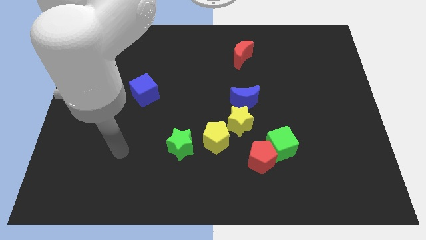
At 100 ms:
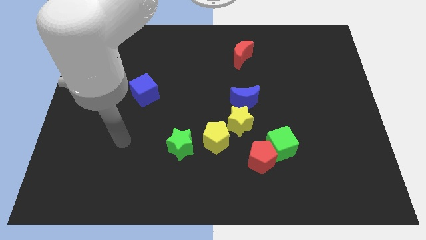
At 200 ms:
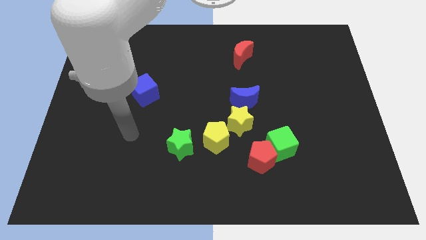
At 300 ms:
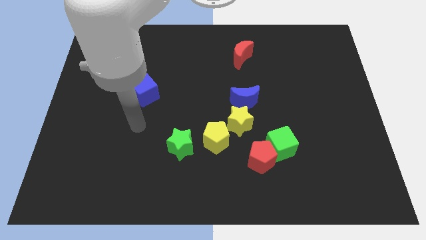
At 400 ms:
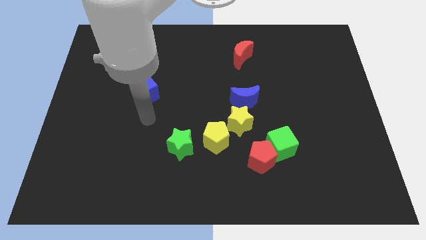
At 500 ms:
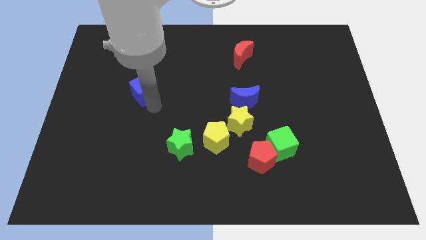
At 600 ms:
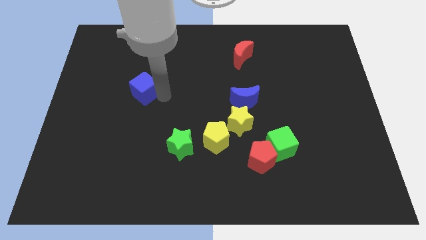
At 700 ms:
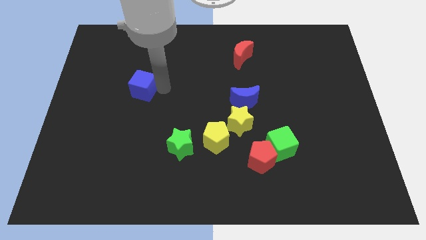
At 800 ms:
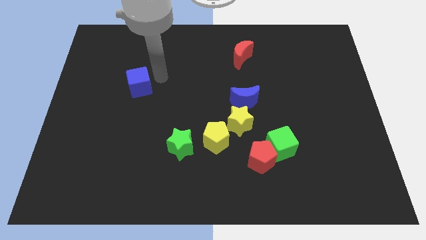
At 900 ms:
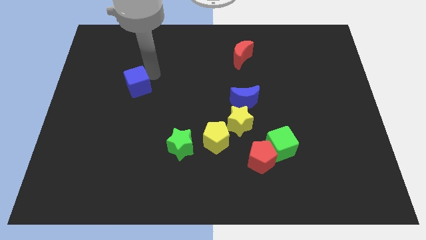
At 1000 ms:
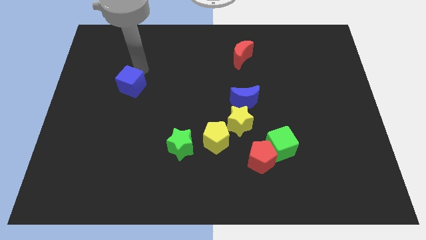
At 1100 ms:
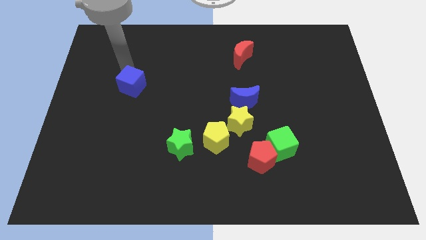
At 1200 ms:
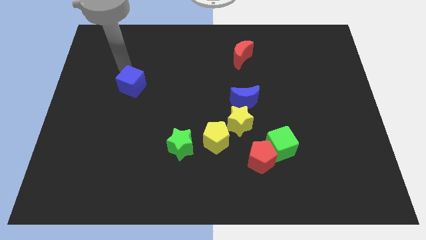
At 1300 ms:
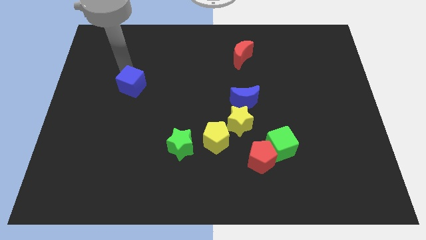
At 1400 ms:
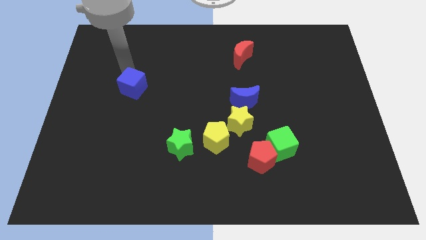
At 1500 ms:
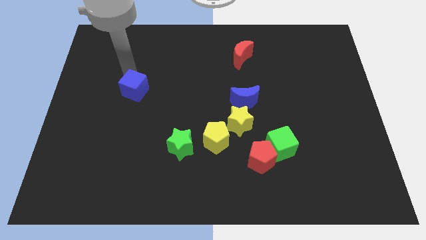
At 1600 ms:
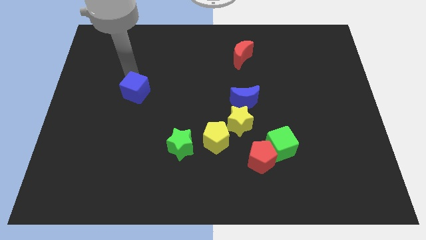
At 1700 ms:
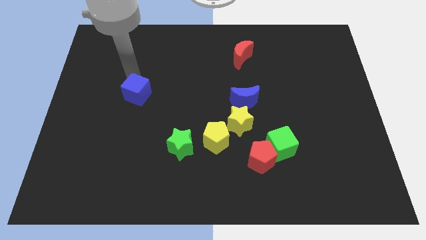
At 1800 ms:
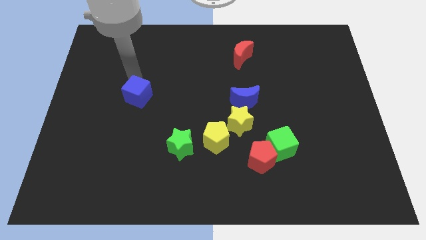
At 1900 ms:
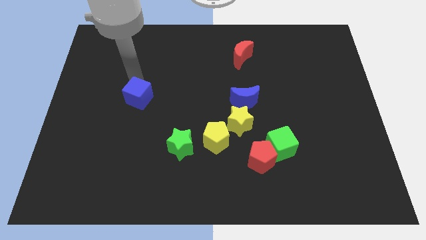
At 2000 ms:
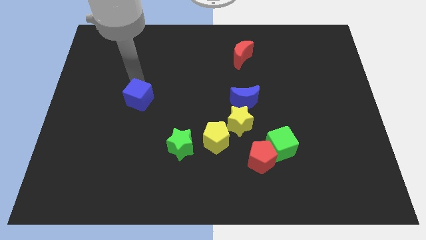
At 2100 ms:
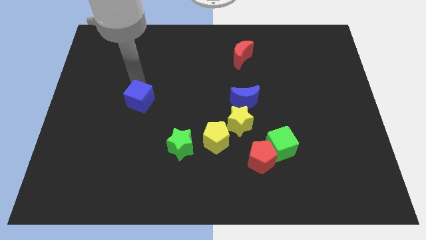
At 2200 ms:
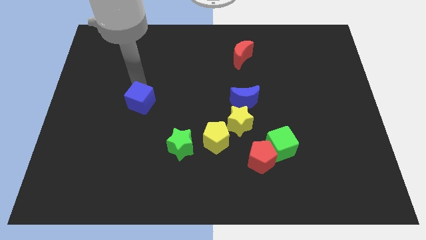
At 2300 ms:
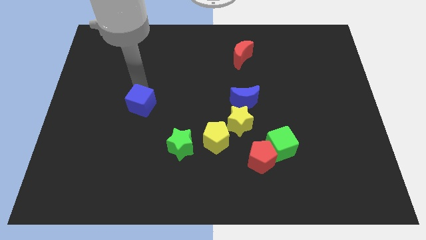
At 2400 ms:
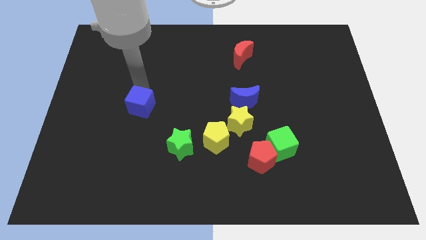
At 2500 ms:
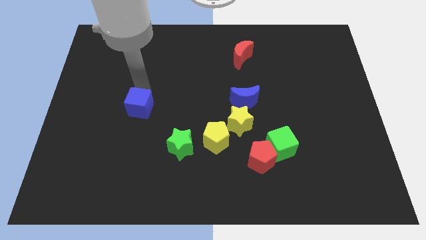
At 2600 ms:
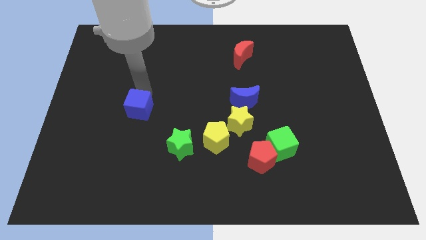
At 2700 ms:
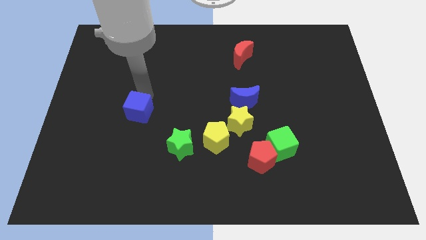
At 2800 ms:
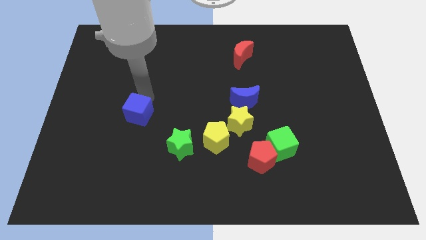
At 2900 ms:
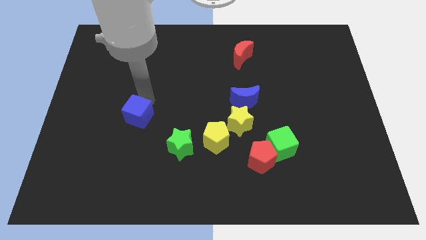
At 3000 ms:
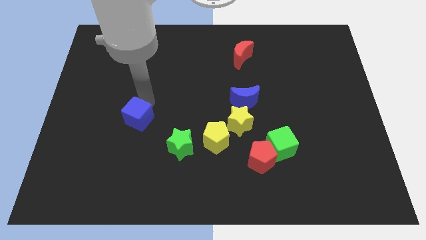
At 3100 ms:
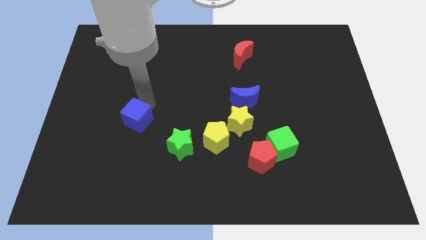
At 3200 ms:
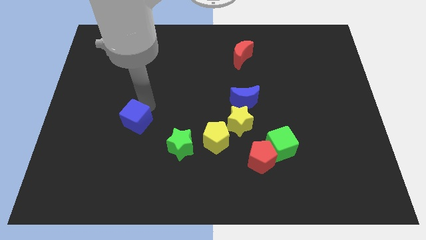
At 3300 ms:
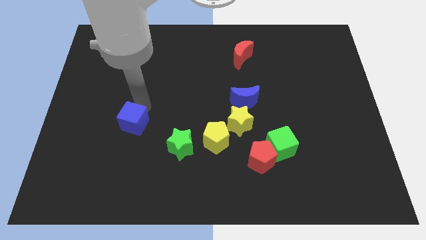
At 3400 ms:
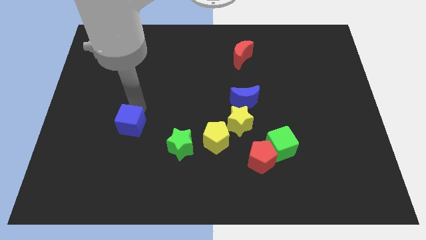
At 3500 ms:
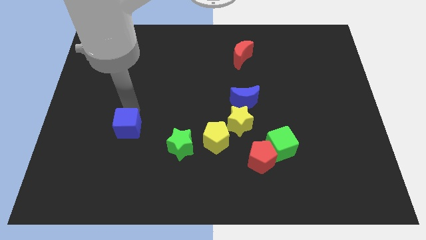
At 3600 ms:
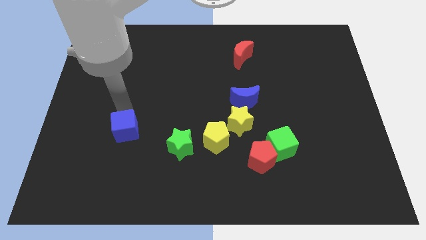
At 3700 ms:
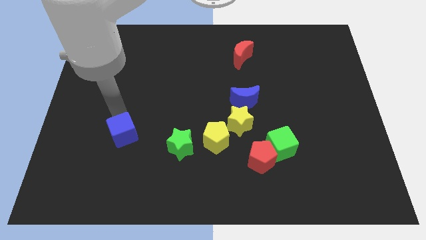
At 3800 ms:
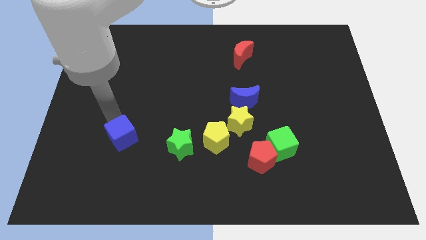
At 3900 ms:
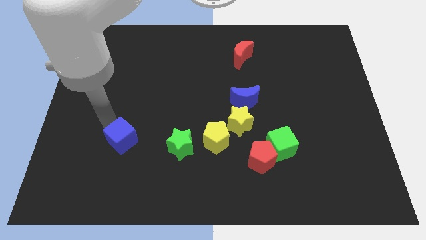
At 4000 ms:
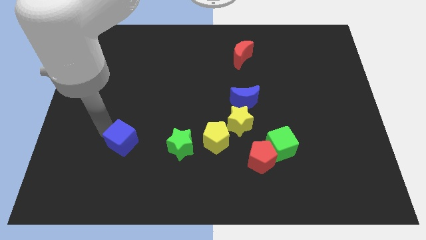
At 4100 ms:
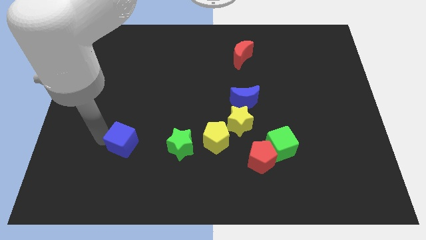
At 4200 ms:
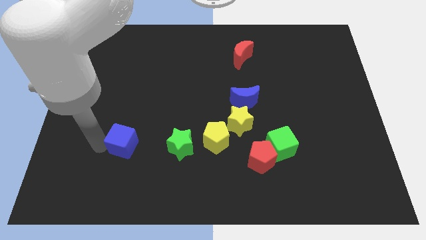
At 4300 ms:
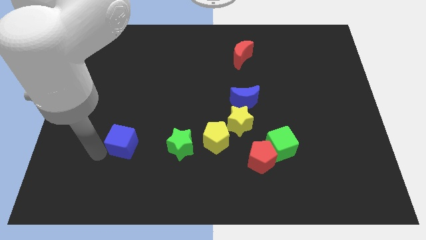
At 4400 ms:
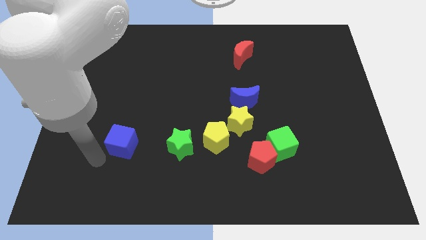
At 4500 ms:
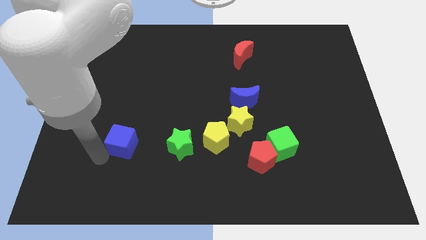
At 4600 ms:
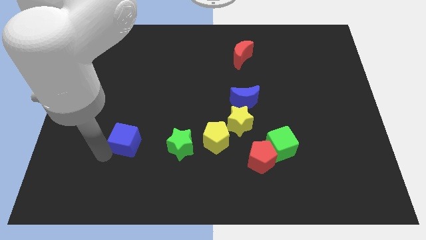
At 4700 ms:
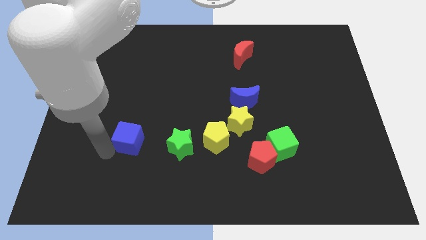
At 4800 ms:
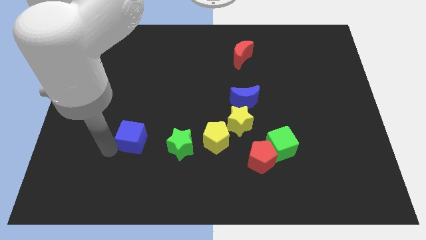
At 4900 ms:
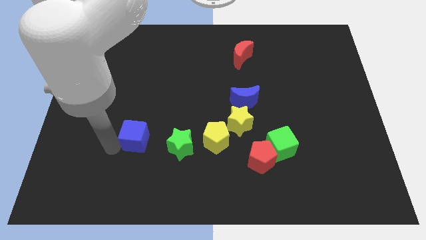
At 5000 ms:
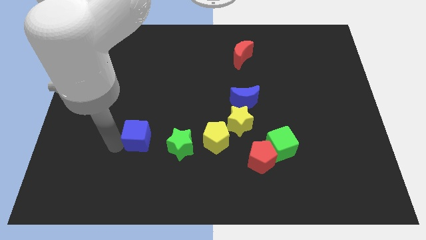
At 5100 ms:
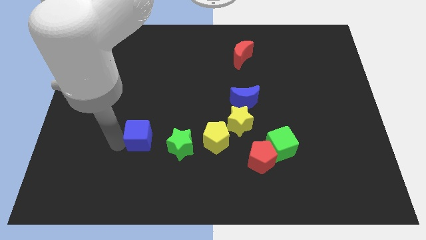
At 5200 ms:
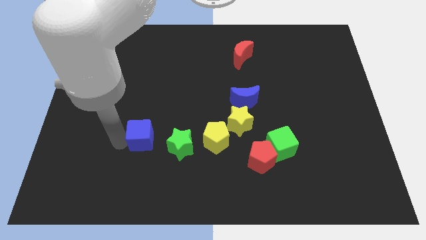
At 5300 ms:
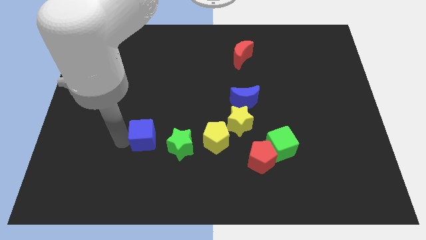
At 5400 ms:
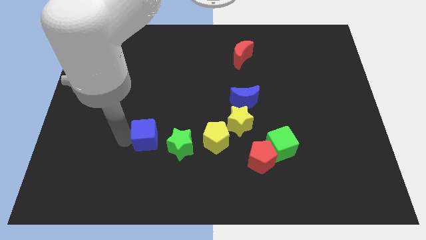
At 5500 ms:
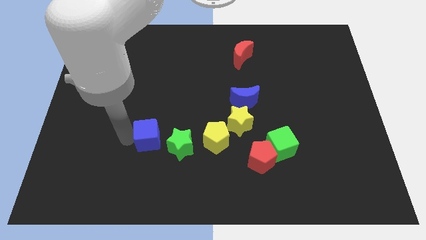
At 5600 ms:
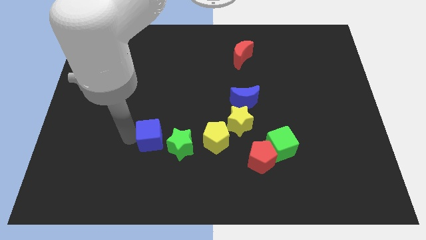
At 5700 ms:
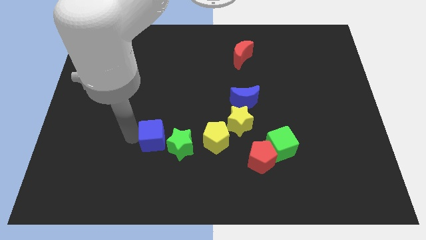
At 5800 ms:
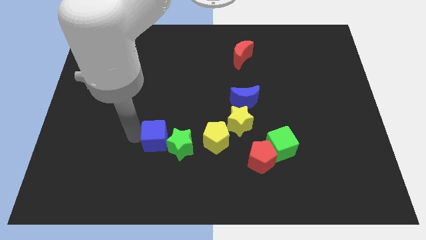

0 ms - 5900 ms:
slide the blue cube close to the green star

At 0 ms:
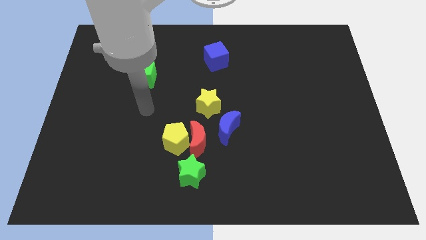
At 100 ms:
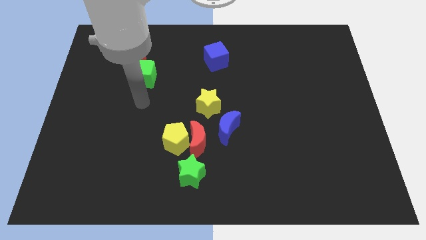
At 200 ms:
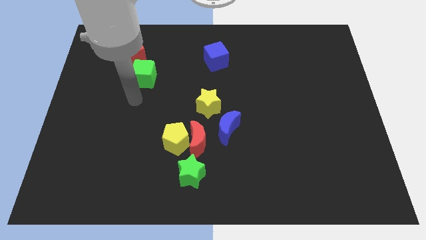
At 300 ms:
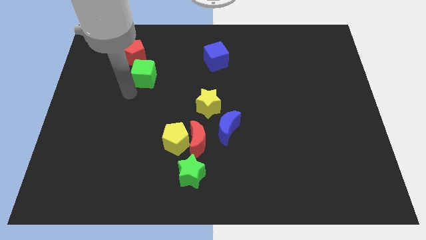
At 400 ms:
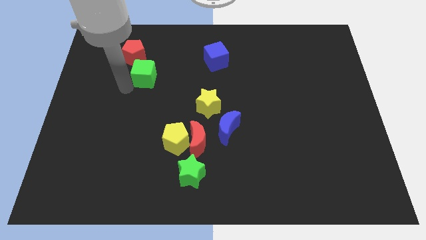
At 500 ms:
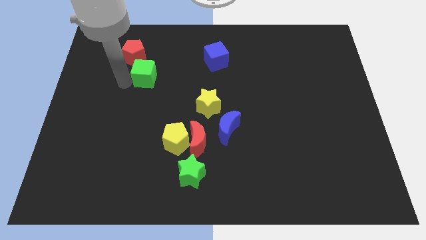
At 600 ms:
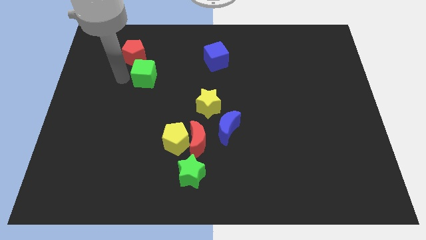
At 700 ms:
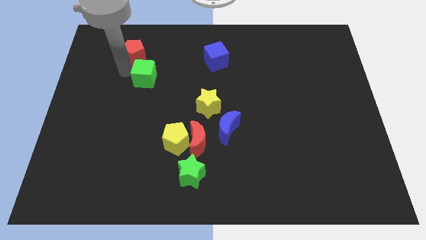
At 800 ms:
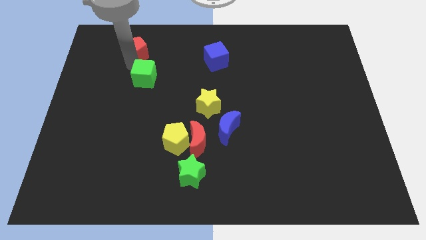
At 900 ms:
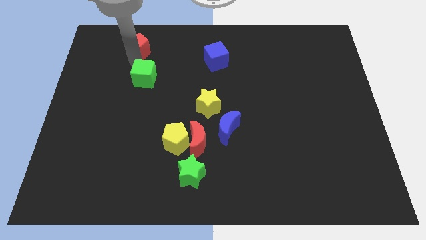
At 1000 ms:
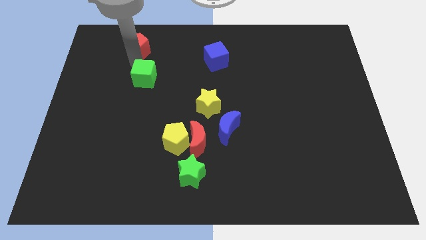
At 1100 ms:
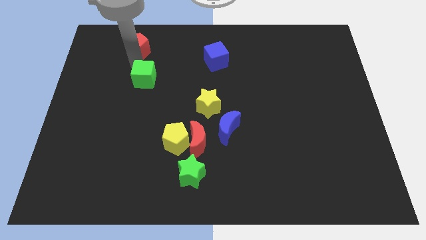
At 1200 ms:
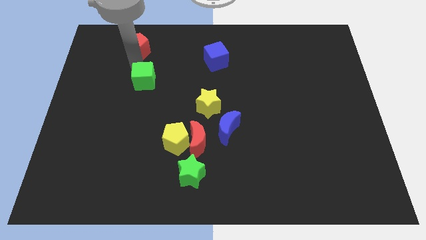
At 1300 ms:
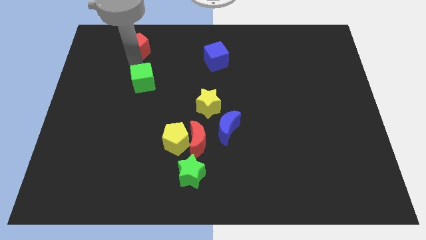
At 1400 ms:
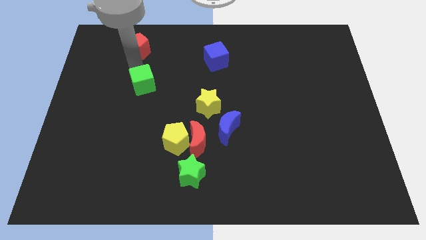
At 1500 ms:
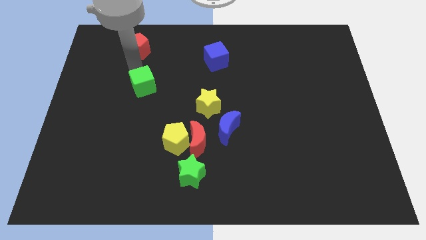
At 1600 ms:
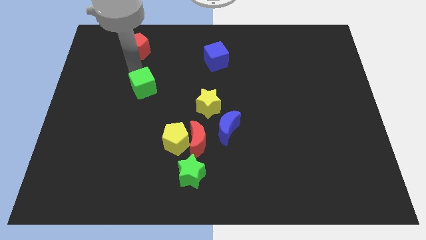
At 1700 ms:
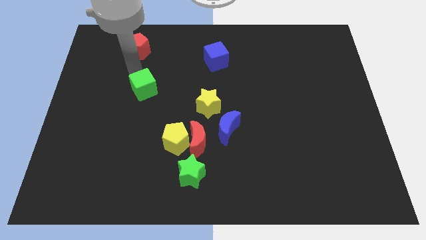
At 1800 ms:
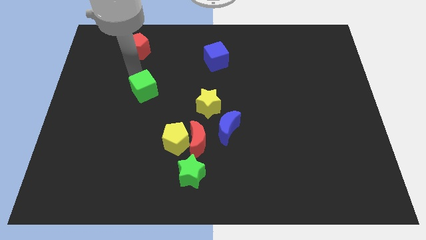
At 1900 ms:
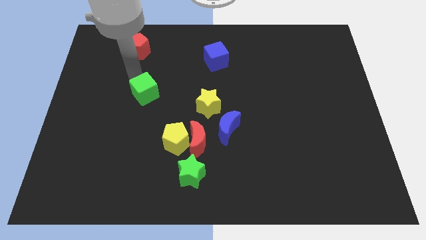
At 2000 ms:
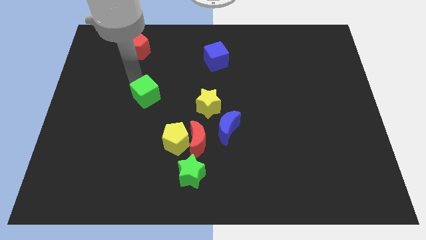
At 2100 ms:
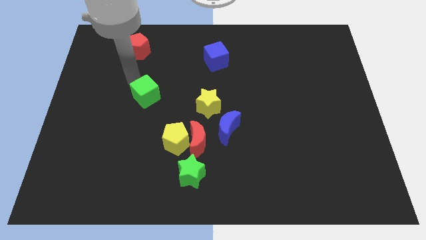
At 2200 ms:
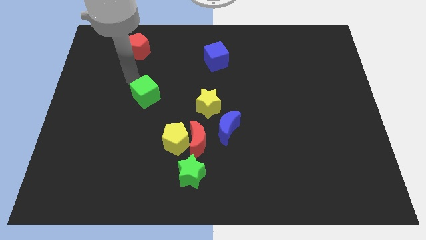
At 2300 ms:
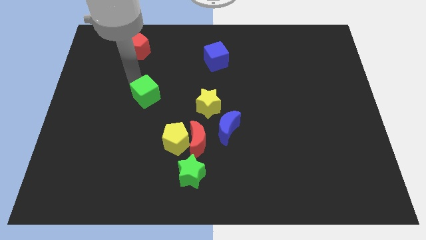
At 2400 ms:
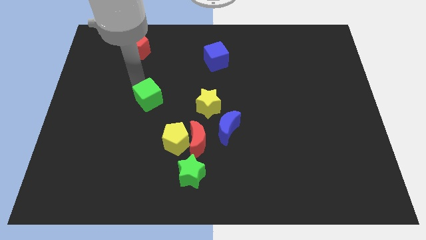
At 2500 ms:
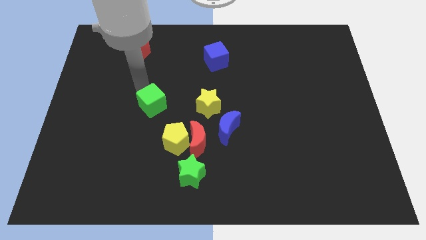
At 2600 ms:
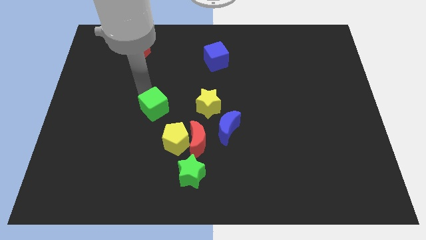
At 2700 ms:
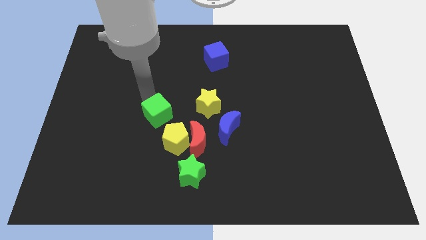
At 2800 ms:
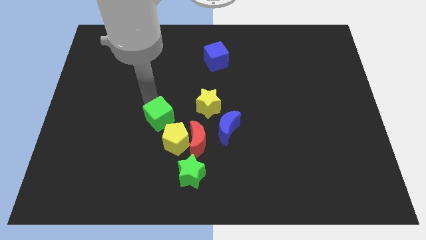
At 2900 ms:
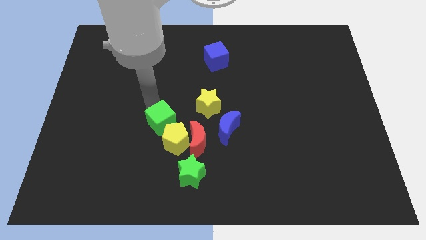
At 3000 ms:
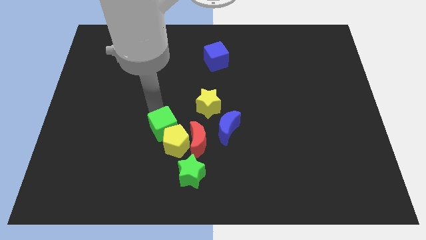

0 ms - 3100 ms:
push the green cube close to the yellow pentagon
